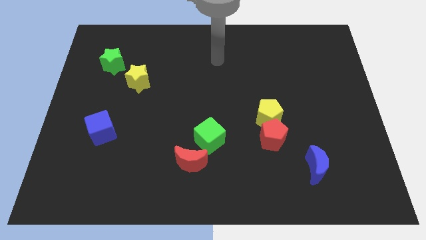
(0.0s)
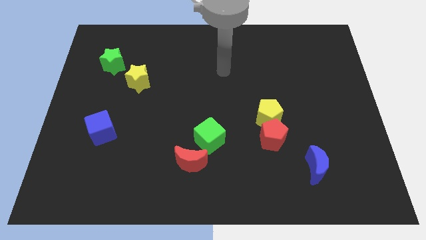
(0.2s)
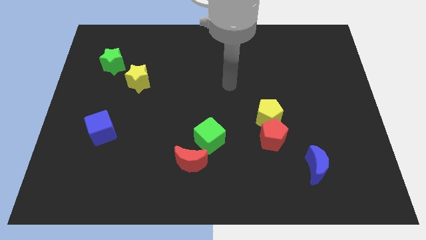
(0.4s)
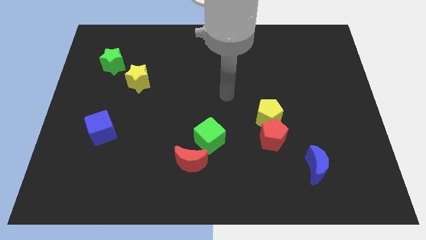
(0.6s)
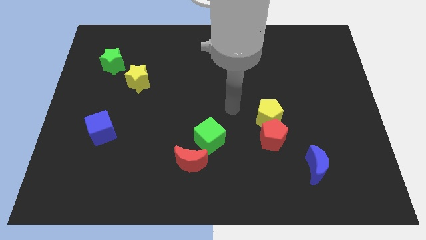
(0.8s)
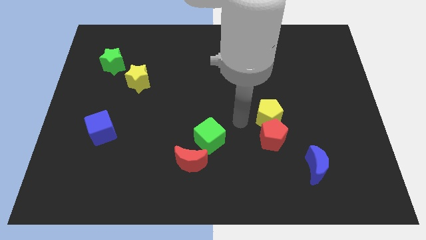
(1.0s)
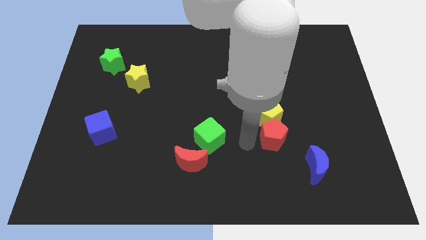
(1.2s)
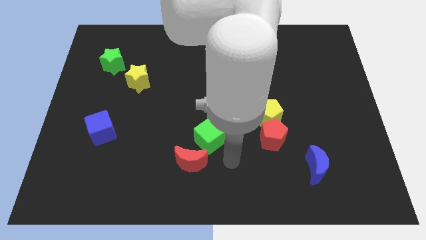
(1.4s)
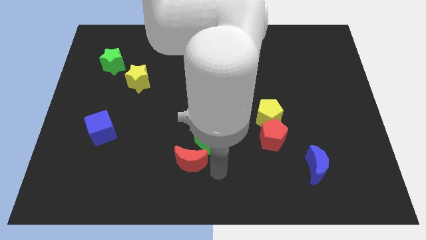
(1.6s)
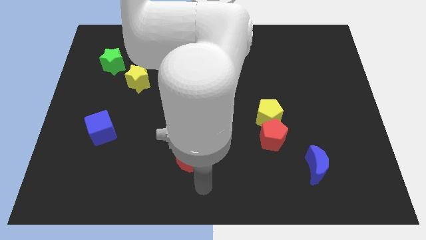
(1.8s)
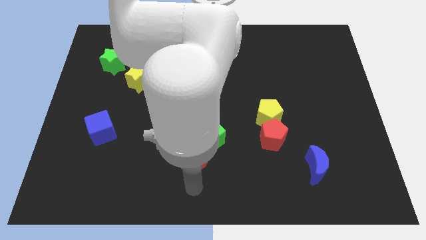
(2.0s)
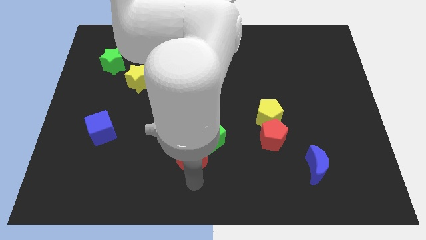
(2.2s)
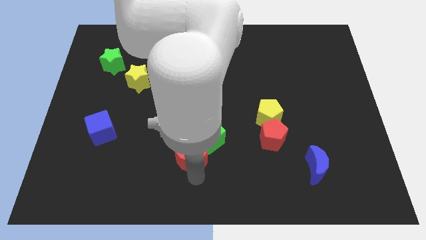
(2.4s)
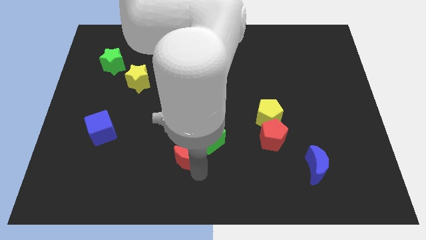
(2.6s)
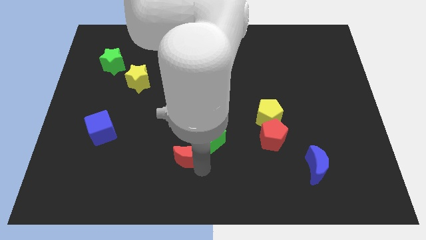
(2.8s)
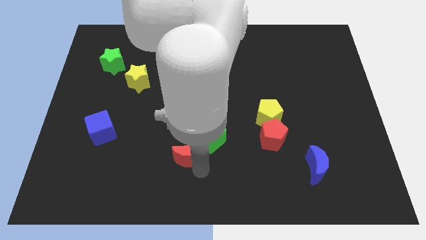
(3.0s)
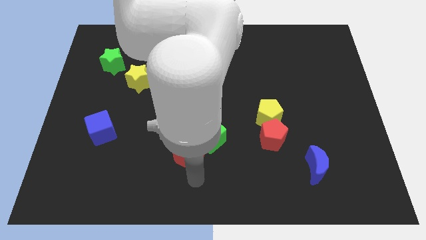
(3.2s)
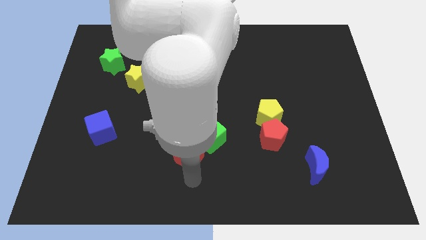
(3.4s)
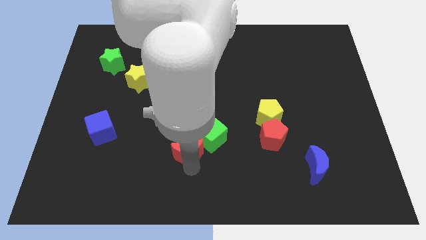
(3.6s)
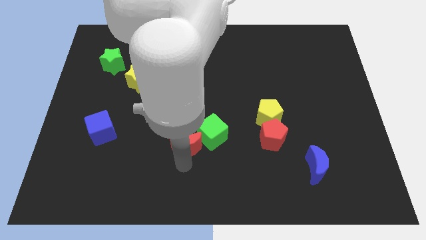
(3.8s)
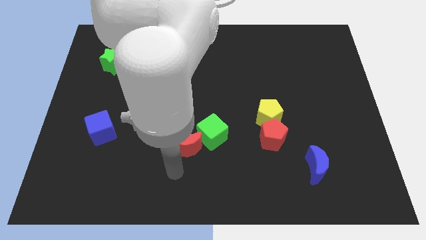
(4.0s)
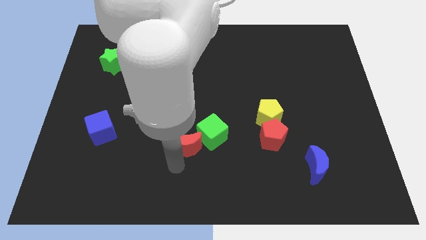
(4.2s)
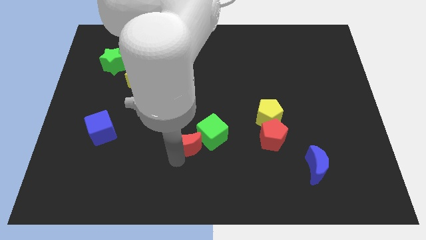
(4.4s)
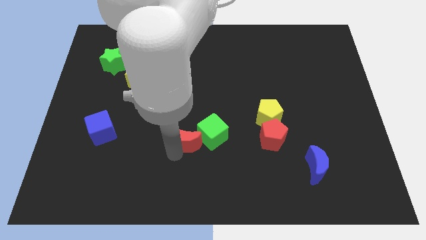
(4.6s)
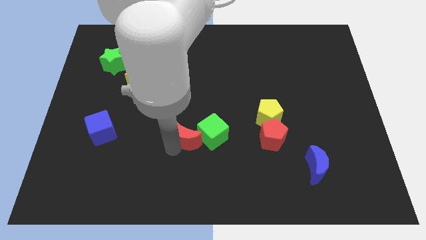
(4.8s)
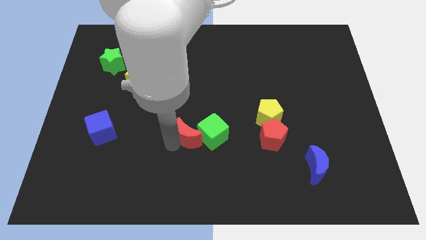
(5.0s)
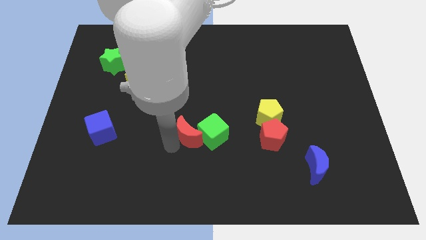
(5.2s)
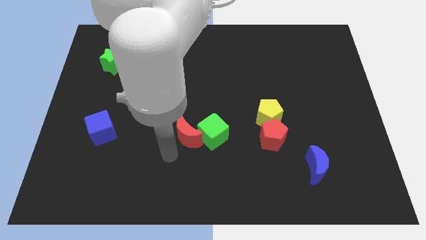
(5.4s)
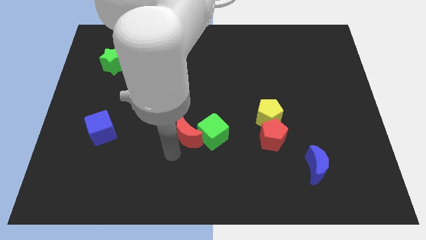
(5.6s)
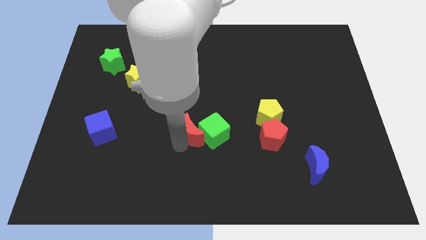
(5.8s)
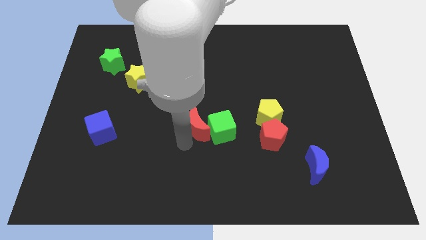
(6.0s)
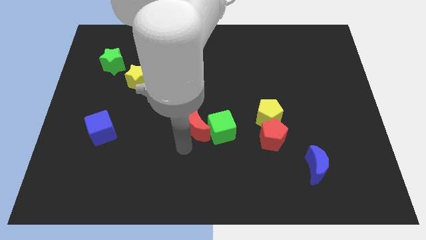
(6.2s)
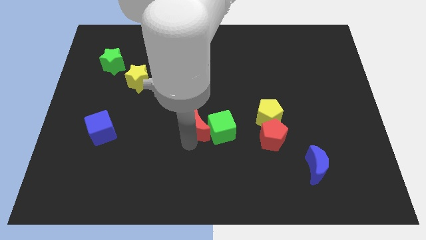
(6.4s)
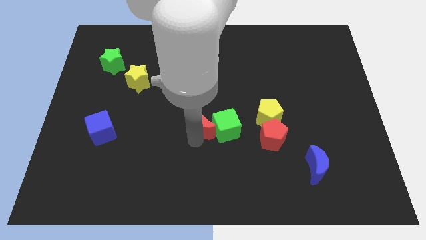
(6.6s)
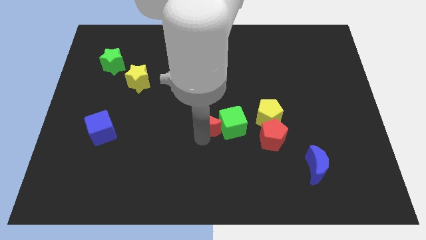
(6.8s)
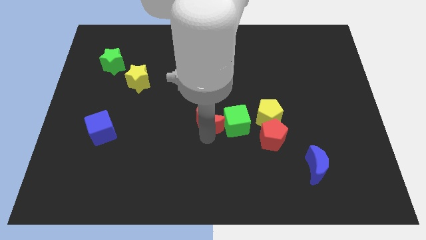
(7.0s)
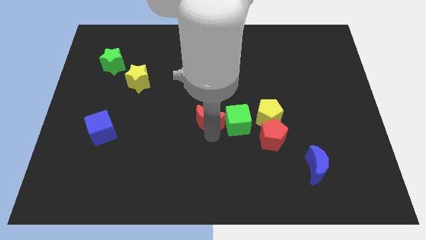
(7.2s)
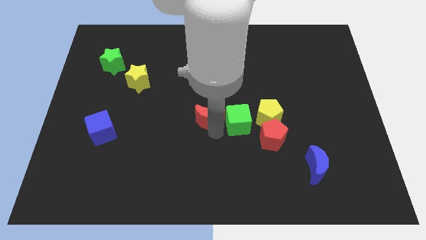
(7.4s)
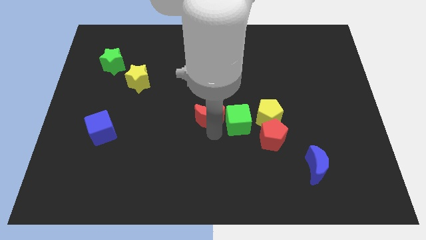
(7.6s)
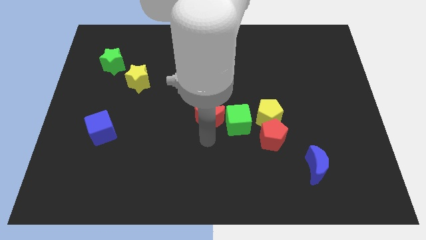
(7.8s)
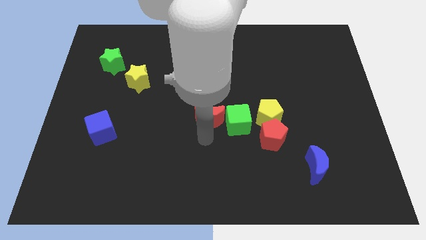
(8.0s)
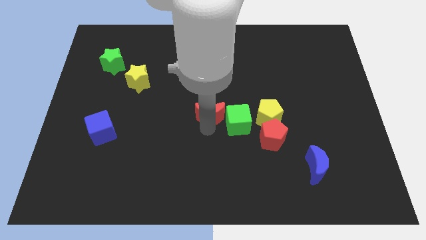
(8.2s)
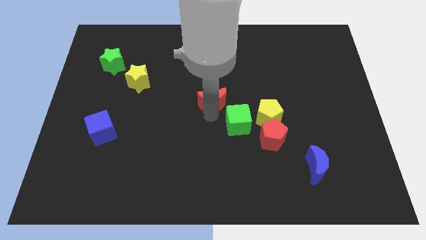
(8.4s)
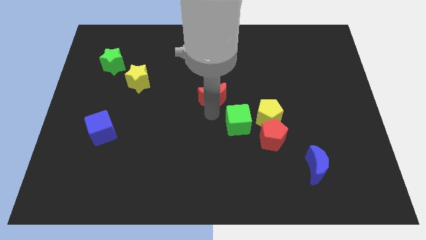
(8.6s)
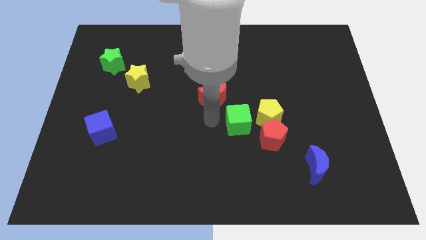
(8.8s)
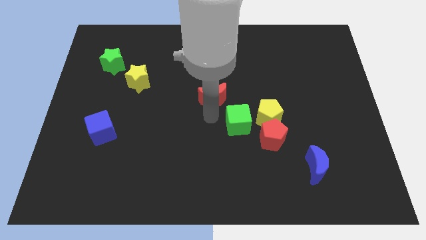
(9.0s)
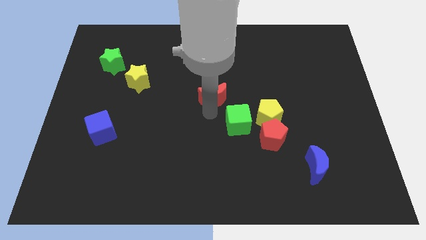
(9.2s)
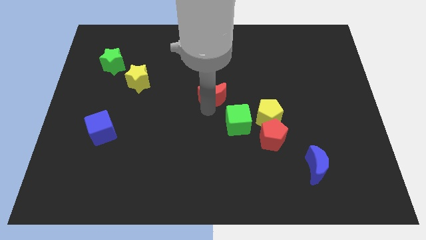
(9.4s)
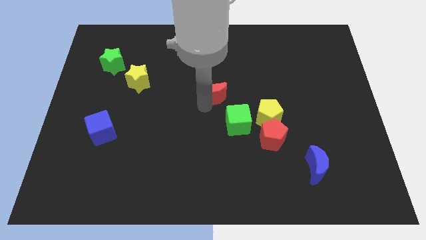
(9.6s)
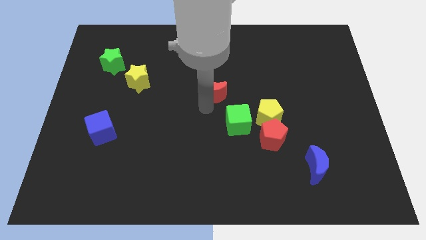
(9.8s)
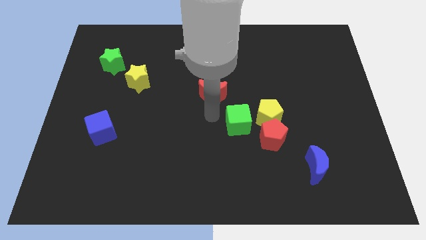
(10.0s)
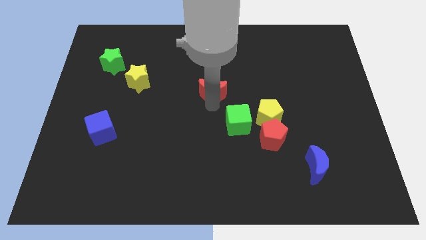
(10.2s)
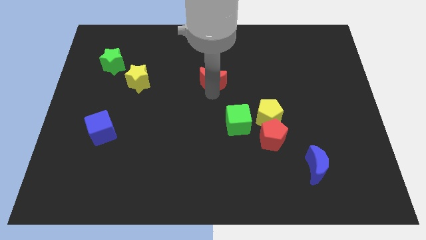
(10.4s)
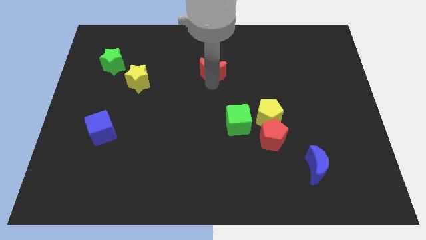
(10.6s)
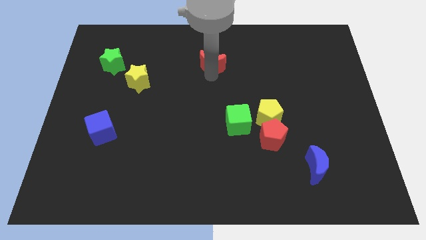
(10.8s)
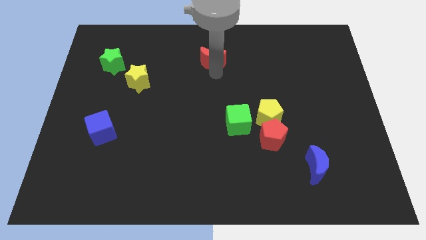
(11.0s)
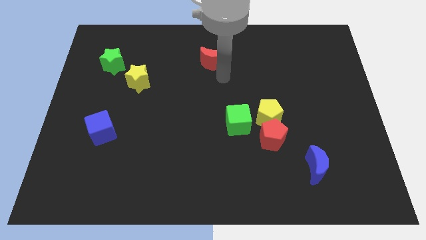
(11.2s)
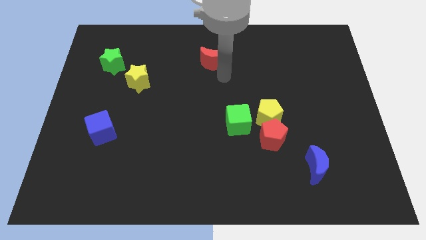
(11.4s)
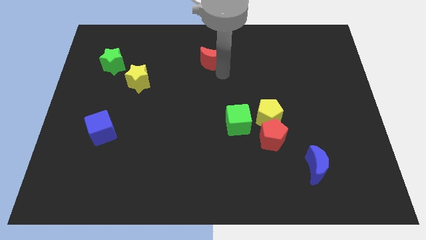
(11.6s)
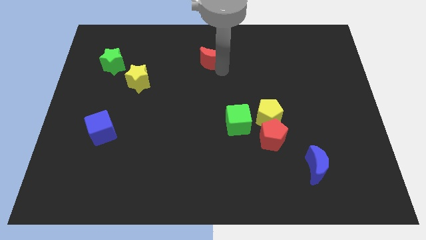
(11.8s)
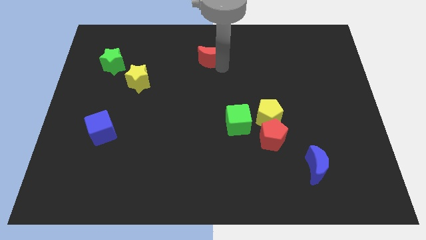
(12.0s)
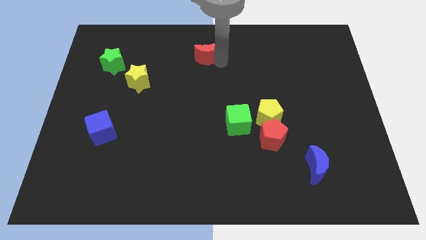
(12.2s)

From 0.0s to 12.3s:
slide the red moon to the towards your base

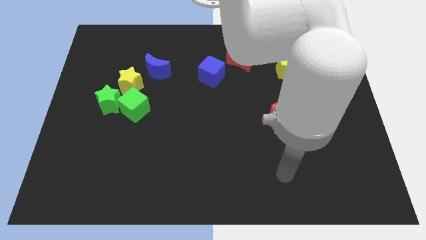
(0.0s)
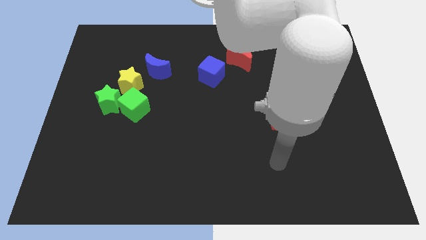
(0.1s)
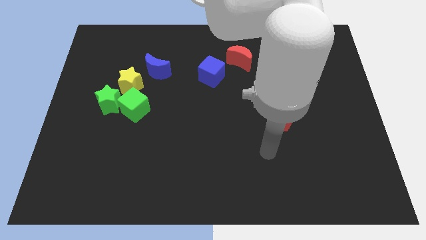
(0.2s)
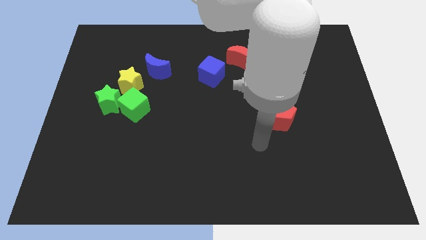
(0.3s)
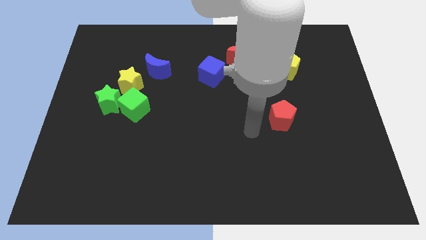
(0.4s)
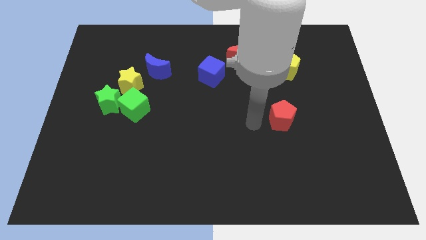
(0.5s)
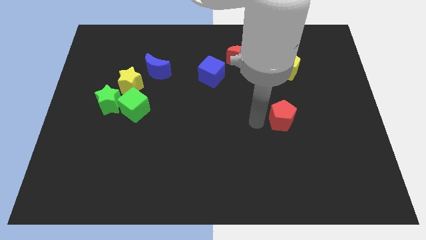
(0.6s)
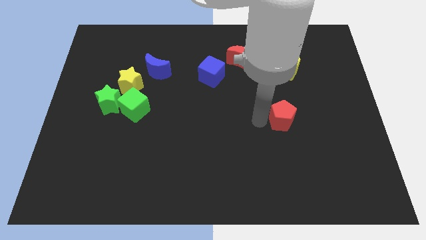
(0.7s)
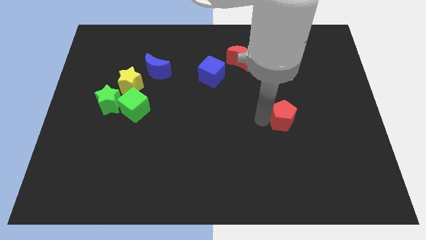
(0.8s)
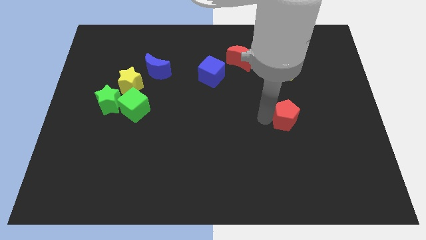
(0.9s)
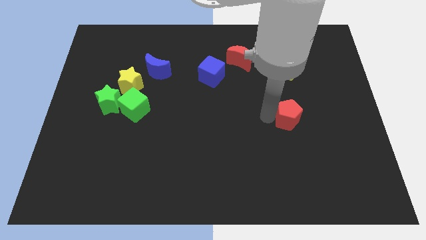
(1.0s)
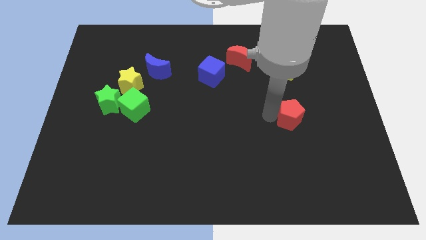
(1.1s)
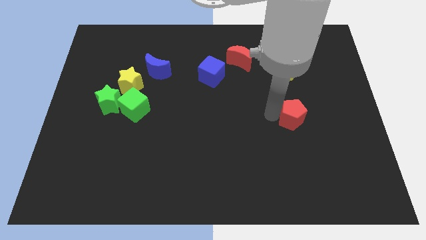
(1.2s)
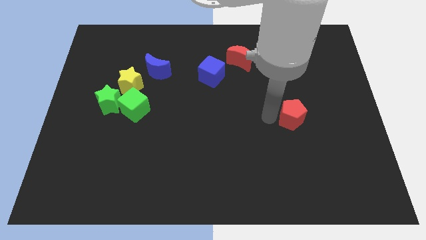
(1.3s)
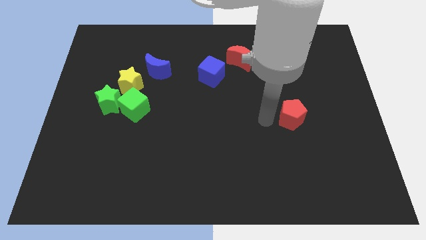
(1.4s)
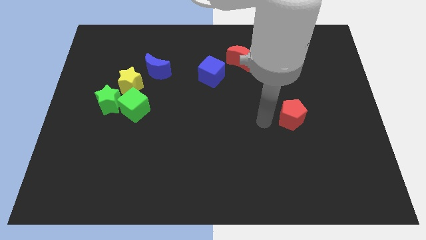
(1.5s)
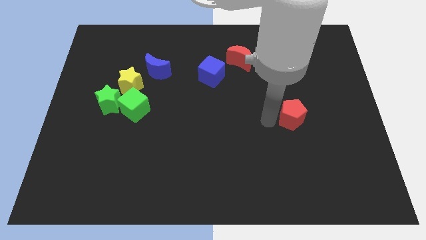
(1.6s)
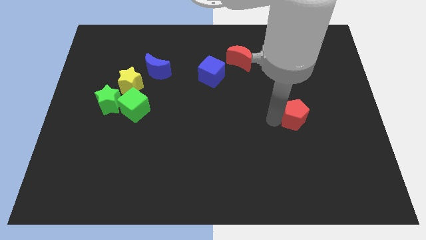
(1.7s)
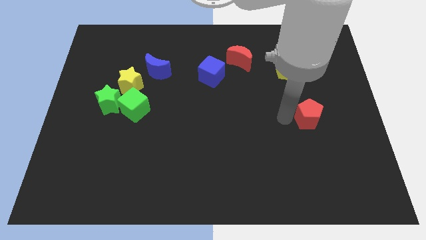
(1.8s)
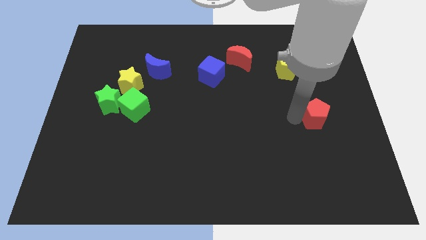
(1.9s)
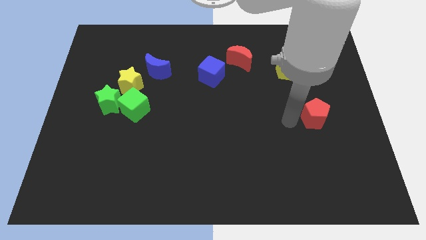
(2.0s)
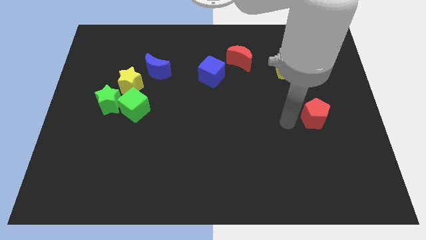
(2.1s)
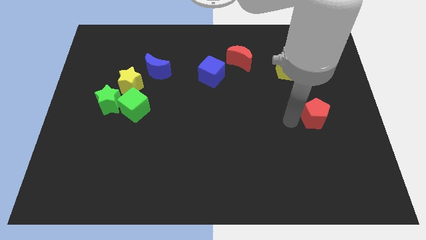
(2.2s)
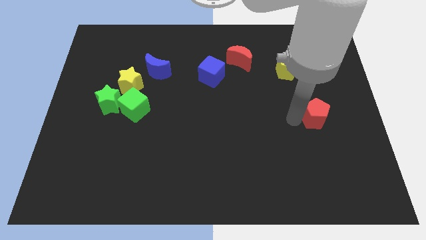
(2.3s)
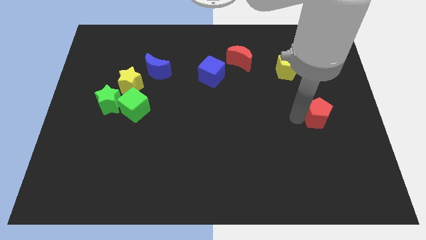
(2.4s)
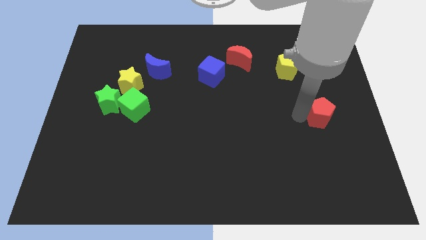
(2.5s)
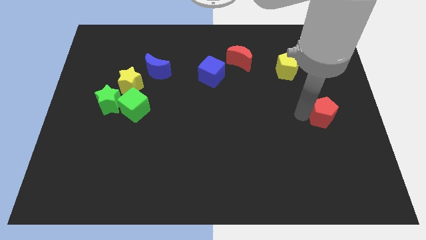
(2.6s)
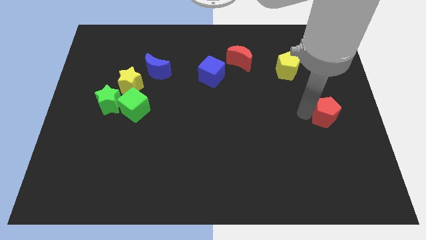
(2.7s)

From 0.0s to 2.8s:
move the red pentagon to the right side of the board
